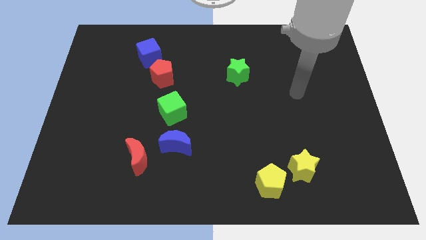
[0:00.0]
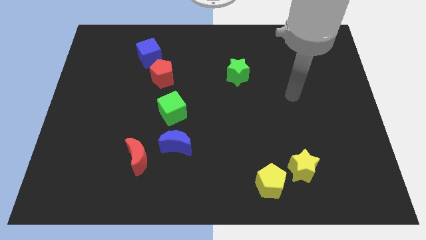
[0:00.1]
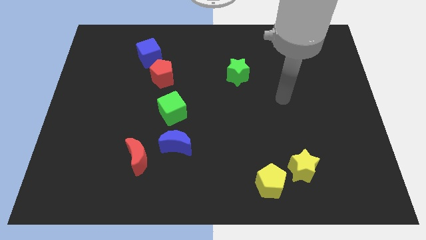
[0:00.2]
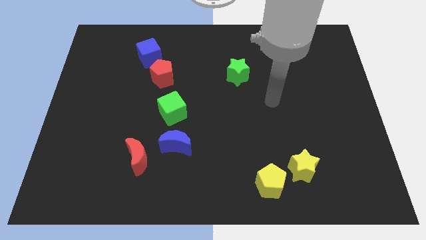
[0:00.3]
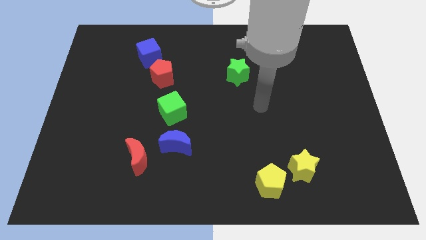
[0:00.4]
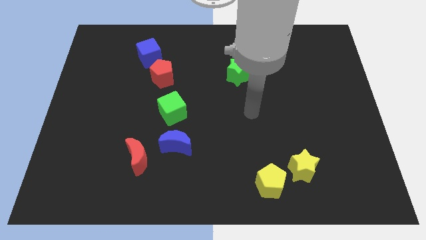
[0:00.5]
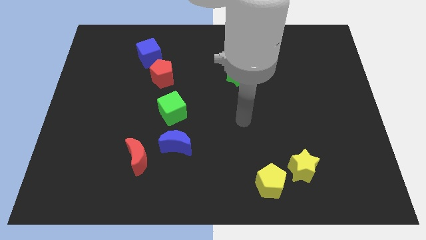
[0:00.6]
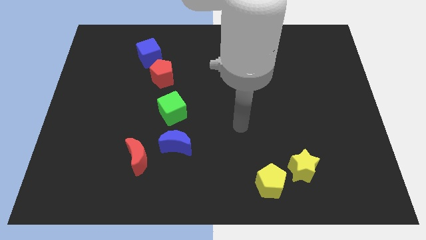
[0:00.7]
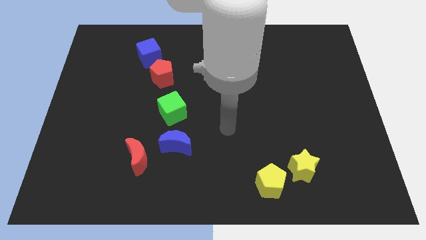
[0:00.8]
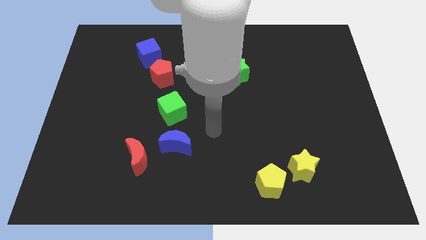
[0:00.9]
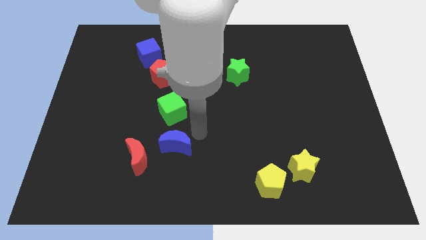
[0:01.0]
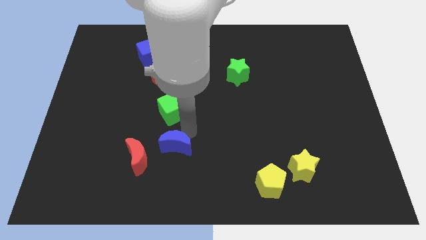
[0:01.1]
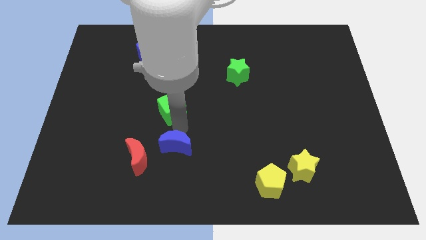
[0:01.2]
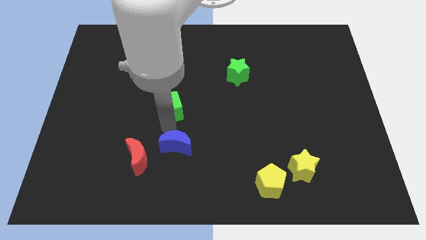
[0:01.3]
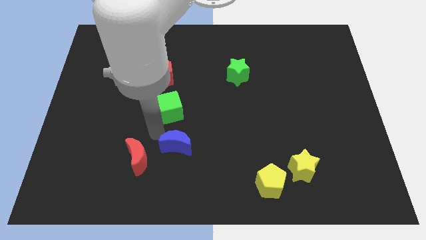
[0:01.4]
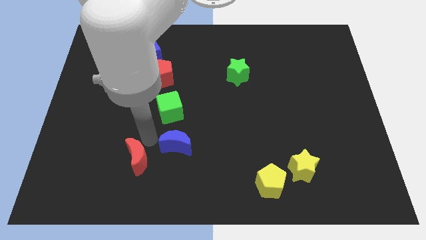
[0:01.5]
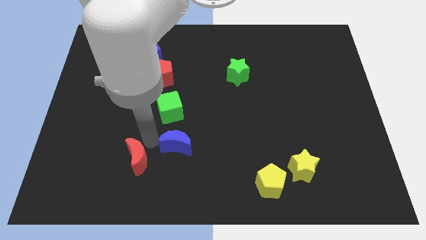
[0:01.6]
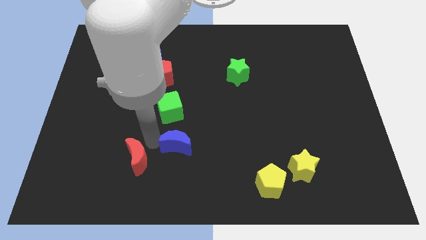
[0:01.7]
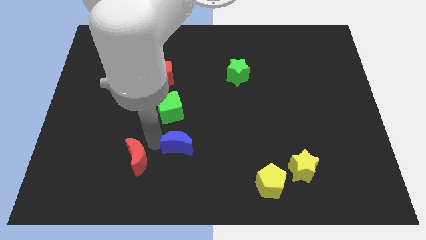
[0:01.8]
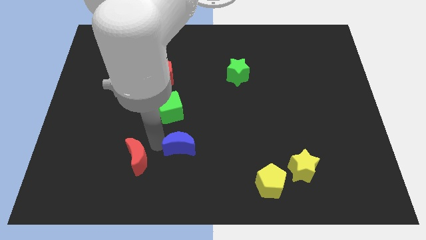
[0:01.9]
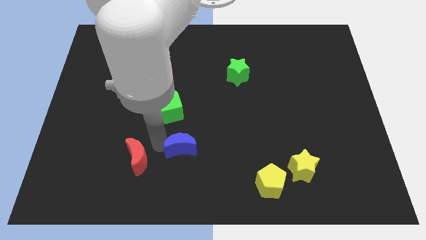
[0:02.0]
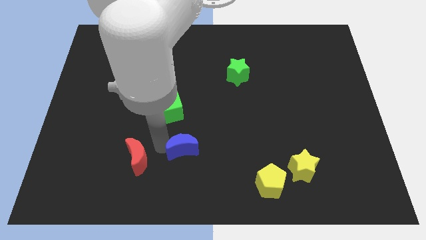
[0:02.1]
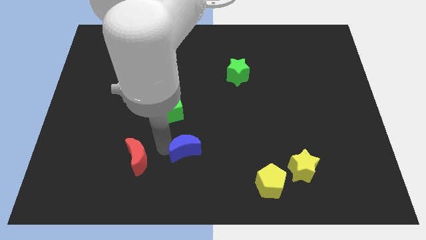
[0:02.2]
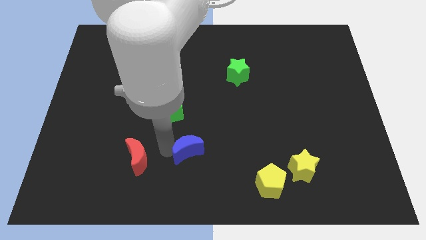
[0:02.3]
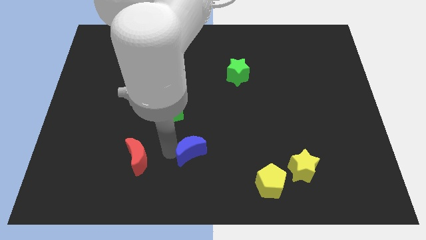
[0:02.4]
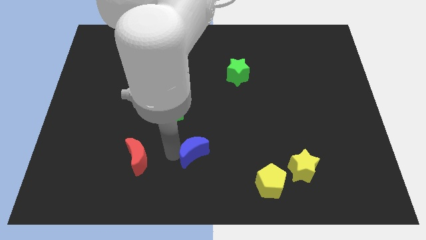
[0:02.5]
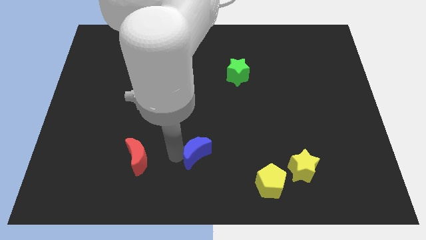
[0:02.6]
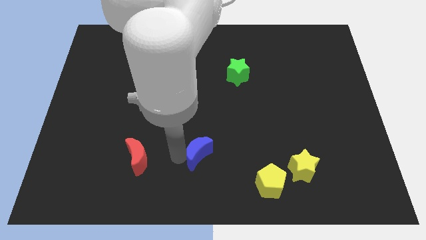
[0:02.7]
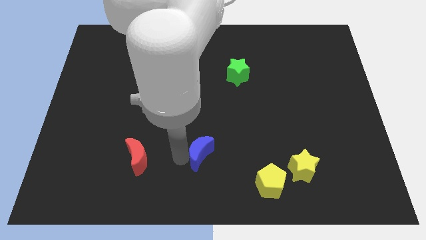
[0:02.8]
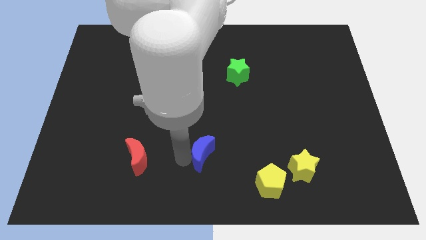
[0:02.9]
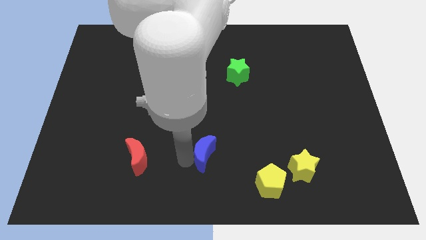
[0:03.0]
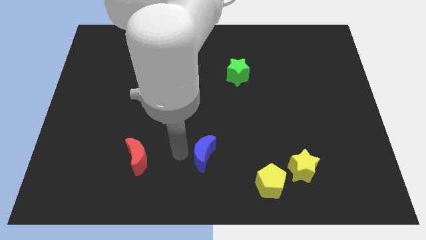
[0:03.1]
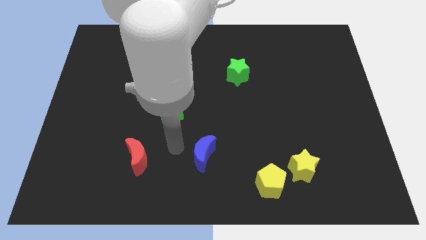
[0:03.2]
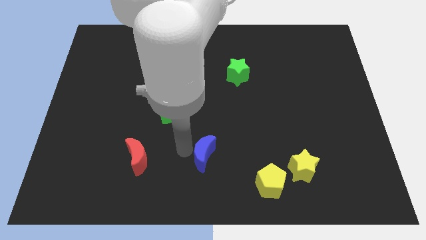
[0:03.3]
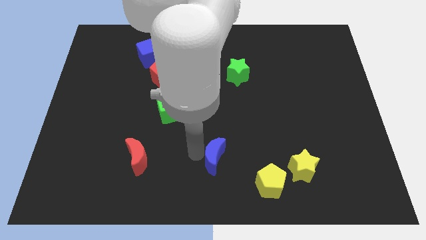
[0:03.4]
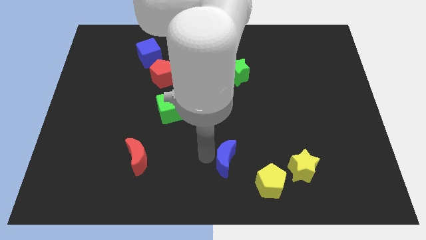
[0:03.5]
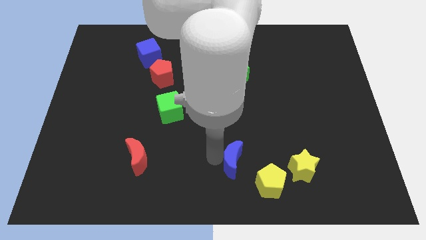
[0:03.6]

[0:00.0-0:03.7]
slide the blue moon just left of the yellow star

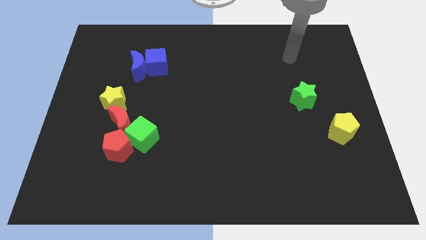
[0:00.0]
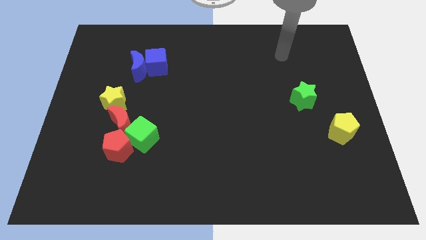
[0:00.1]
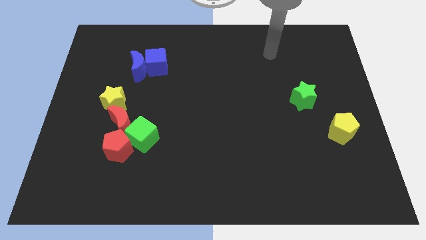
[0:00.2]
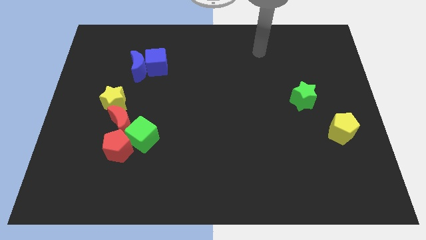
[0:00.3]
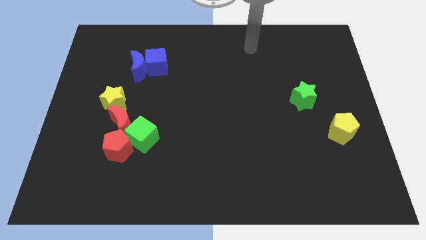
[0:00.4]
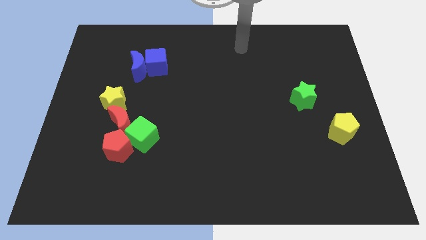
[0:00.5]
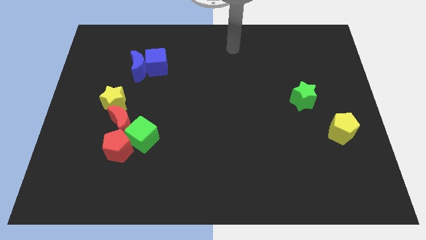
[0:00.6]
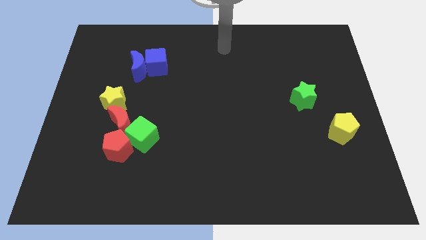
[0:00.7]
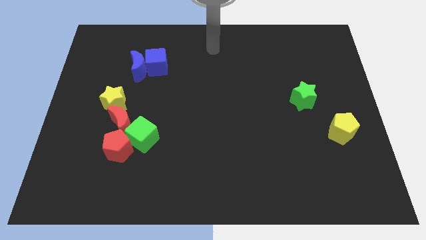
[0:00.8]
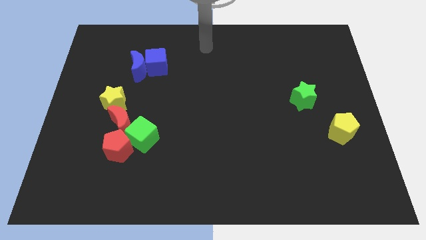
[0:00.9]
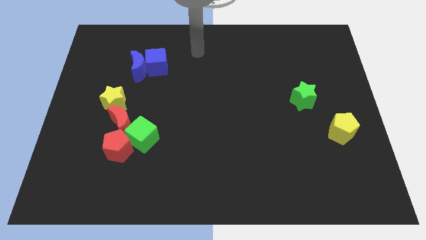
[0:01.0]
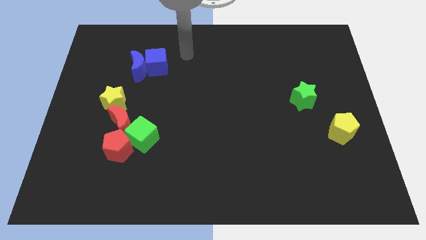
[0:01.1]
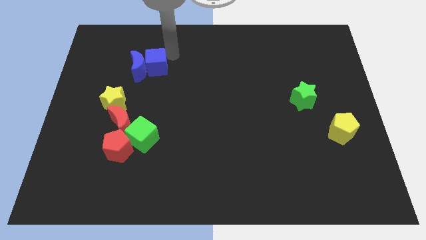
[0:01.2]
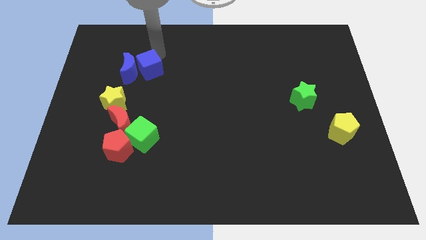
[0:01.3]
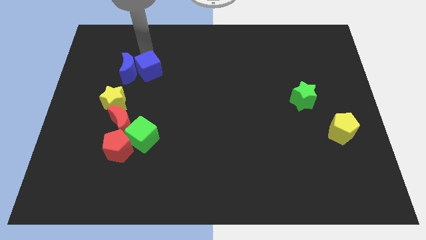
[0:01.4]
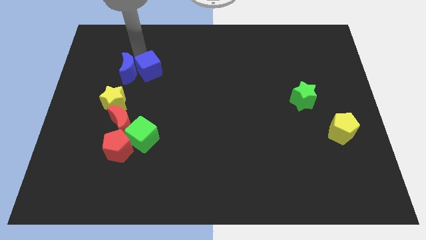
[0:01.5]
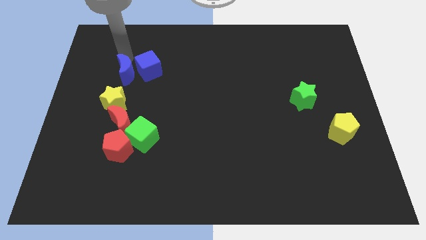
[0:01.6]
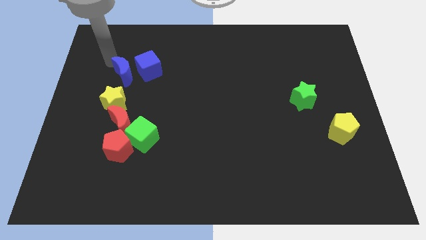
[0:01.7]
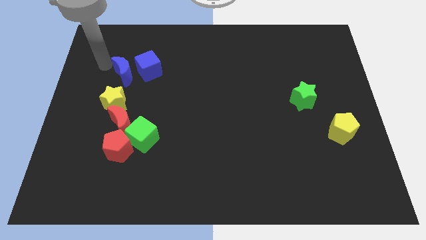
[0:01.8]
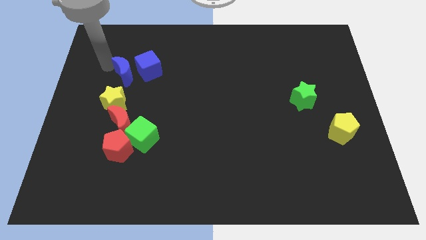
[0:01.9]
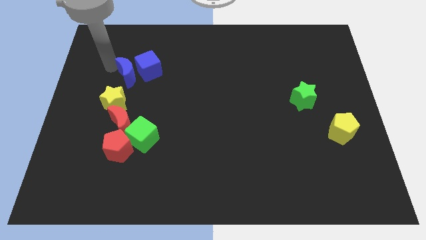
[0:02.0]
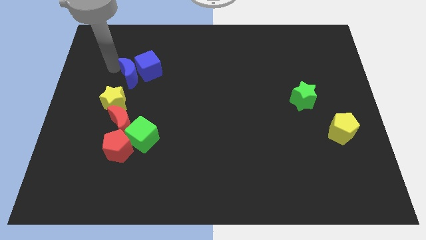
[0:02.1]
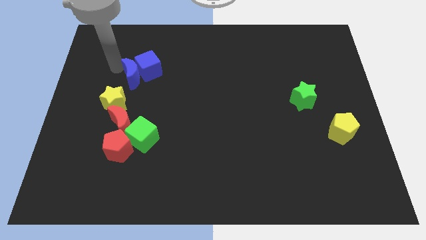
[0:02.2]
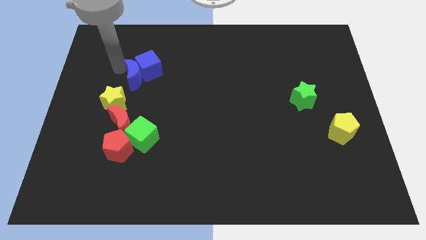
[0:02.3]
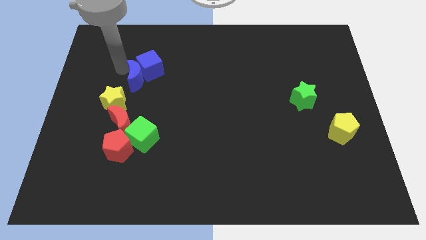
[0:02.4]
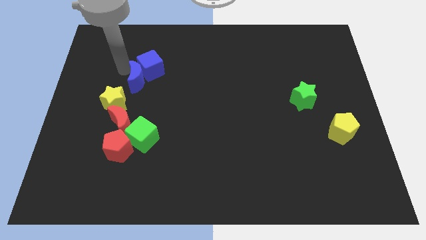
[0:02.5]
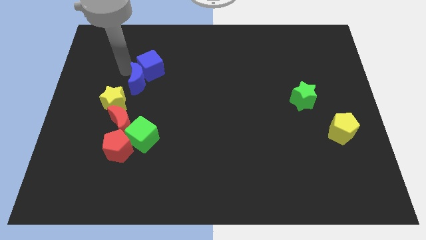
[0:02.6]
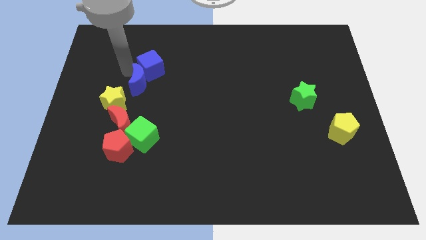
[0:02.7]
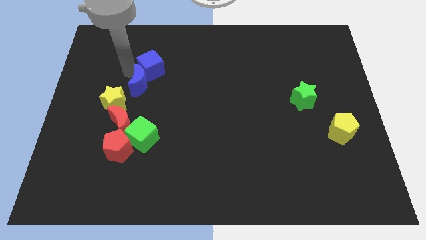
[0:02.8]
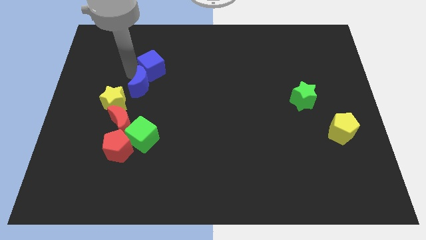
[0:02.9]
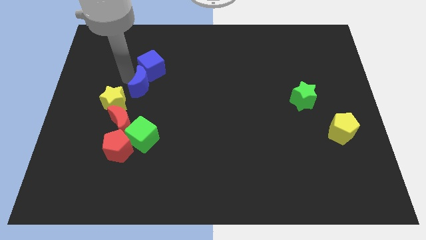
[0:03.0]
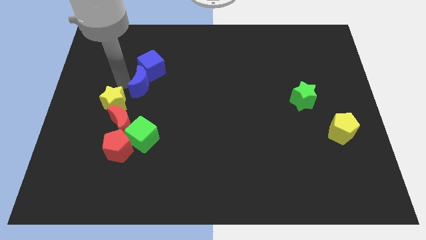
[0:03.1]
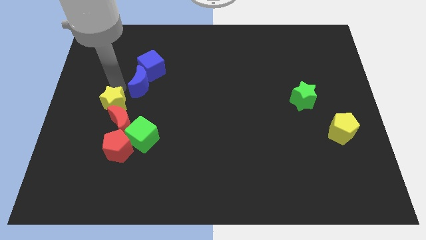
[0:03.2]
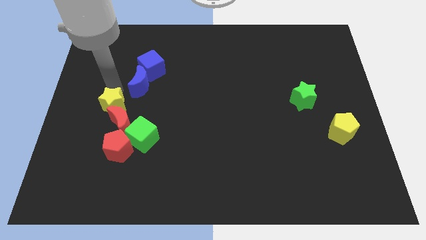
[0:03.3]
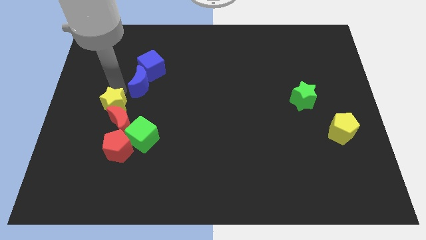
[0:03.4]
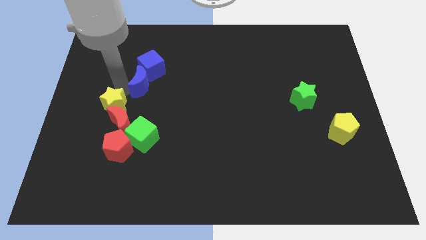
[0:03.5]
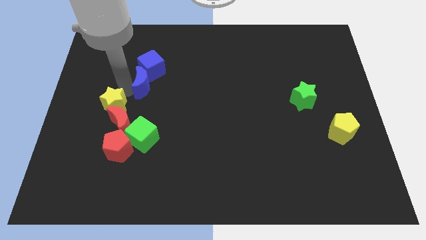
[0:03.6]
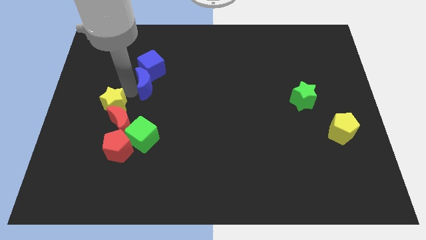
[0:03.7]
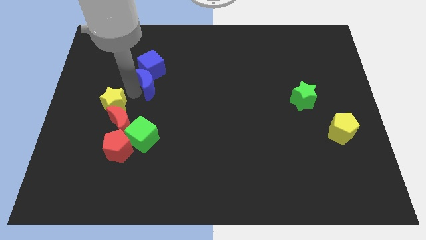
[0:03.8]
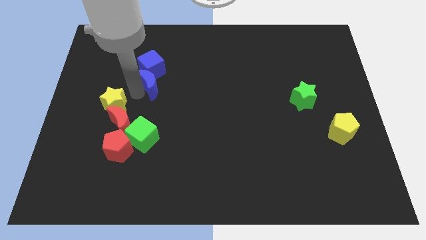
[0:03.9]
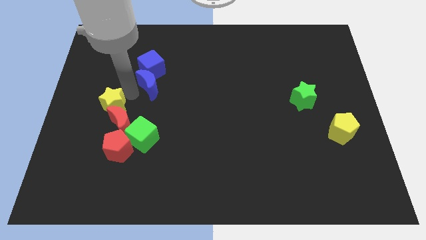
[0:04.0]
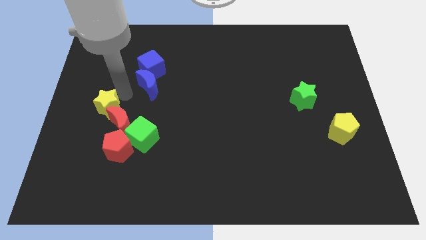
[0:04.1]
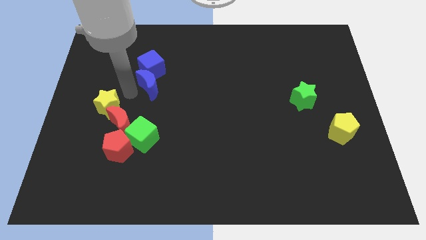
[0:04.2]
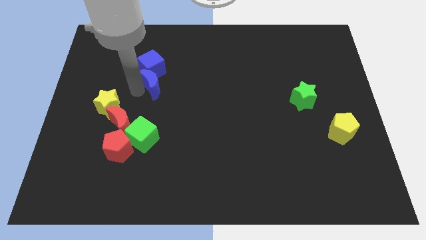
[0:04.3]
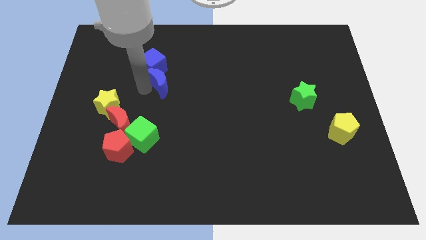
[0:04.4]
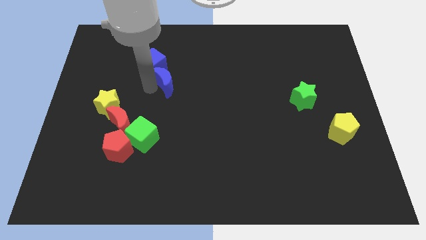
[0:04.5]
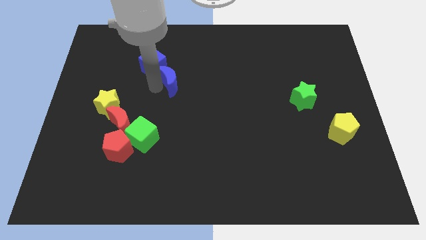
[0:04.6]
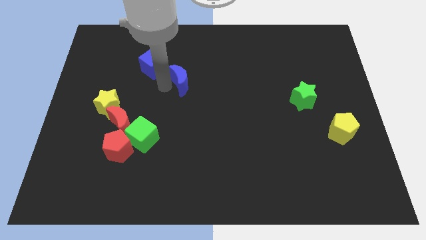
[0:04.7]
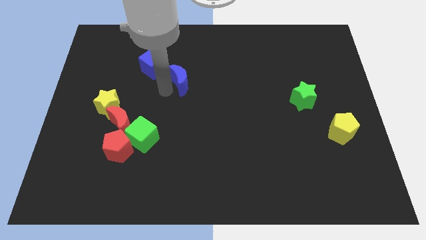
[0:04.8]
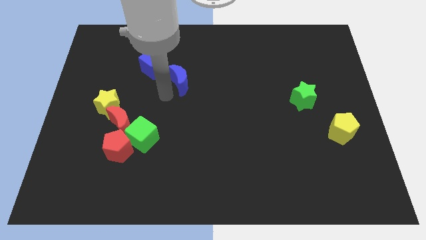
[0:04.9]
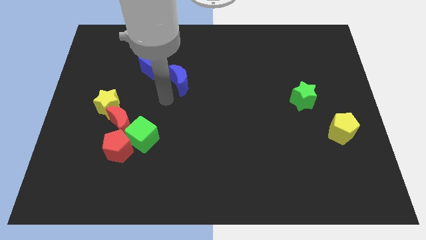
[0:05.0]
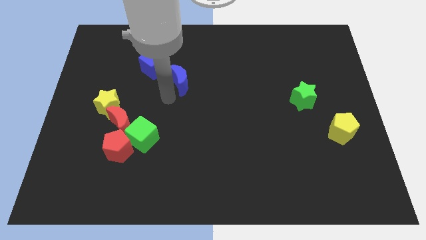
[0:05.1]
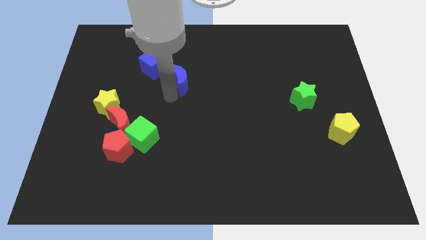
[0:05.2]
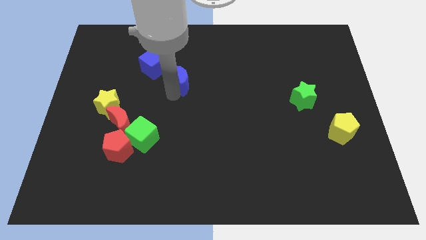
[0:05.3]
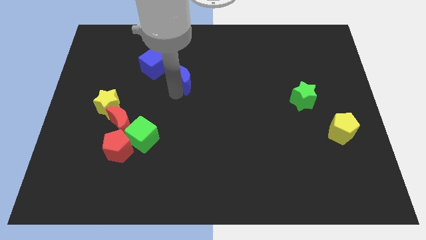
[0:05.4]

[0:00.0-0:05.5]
push the blue moon right of the blue cube
